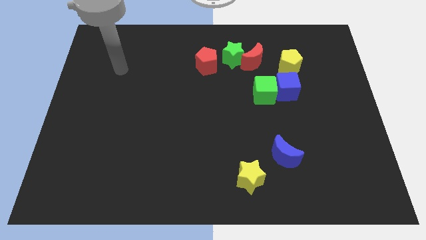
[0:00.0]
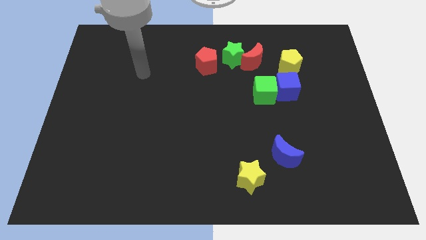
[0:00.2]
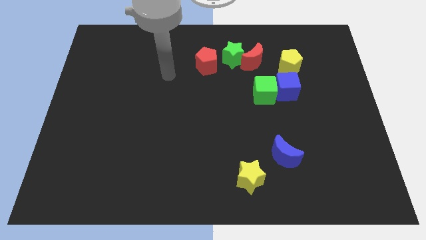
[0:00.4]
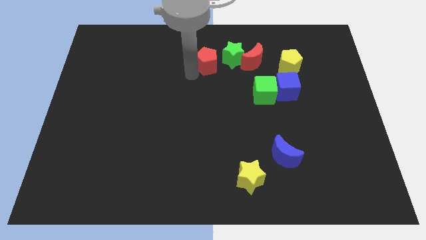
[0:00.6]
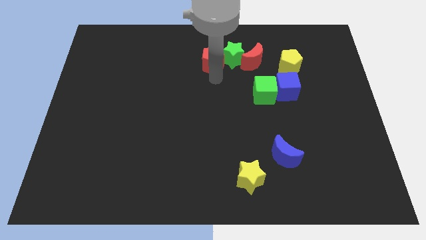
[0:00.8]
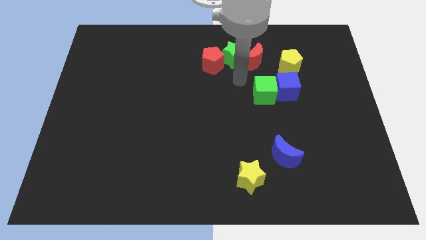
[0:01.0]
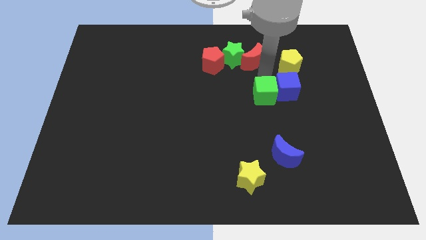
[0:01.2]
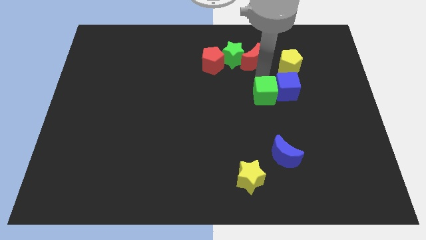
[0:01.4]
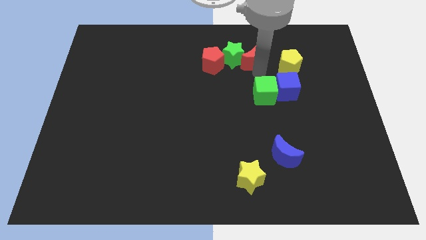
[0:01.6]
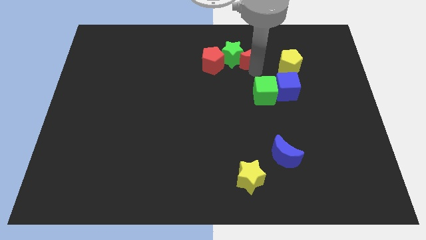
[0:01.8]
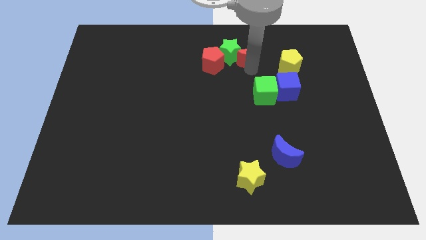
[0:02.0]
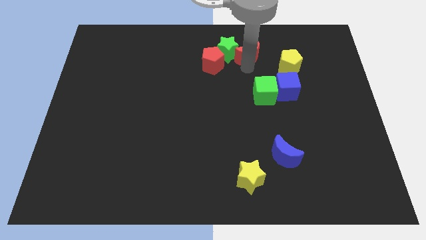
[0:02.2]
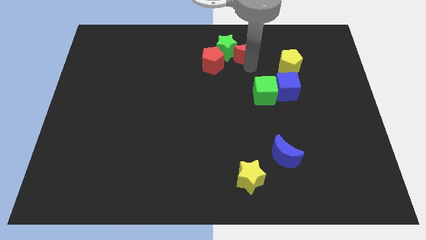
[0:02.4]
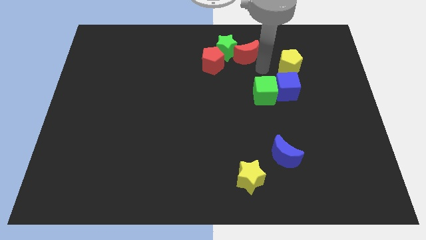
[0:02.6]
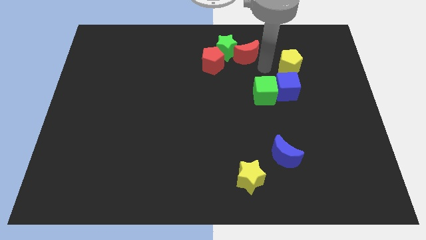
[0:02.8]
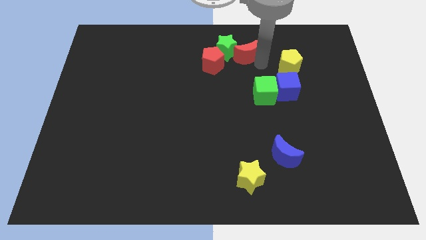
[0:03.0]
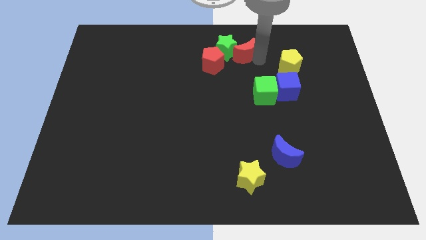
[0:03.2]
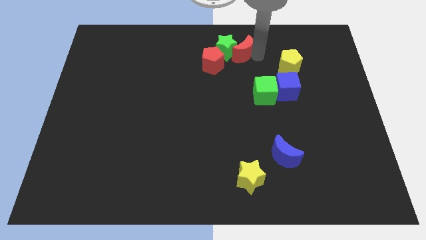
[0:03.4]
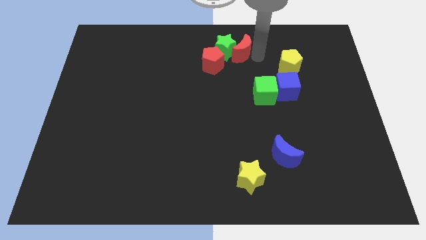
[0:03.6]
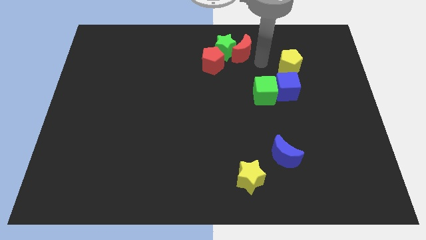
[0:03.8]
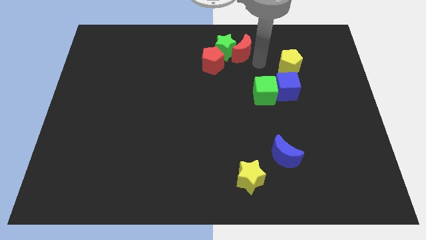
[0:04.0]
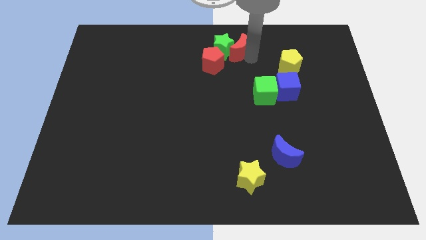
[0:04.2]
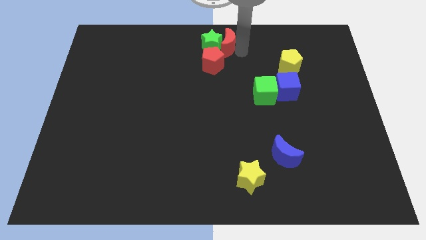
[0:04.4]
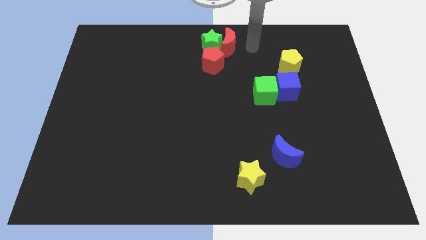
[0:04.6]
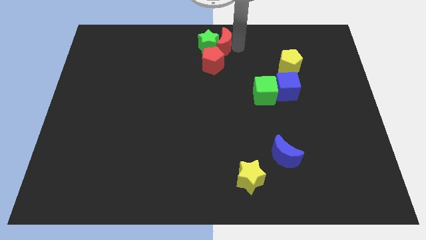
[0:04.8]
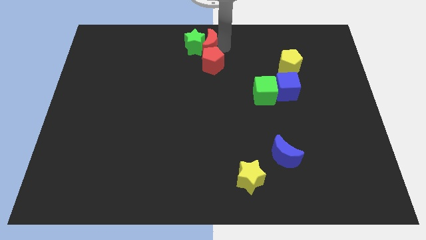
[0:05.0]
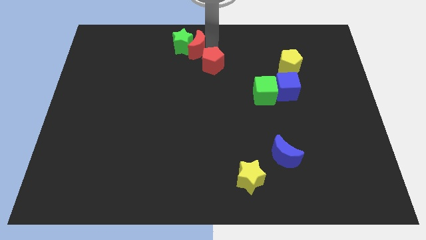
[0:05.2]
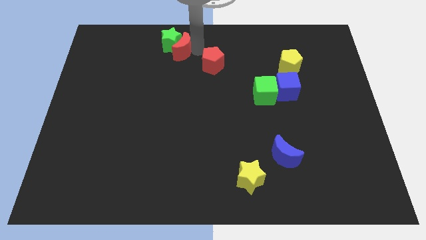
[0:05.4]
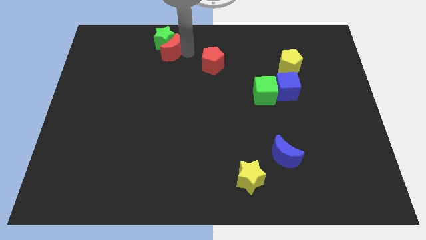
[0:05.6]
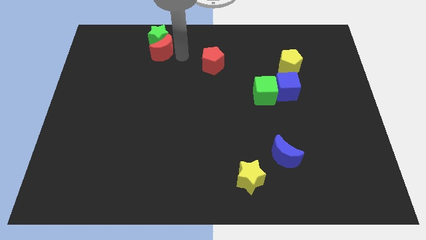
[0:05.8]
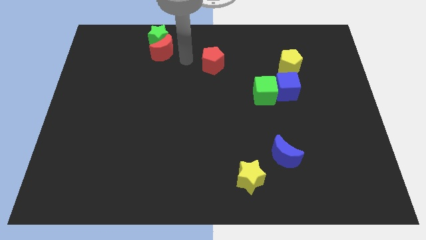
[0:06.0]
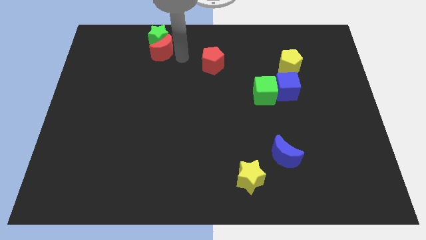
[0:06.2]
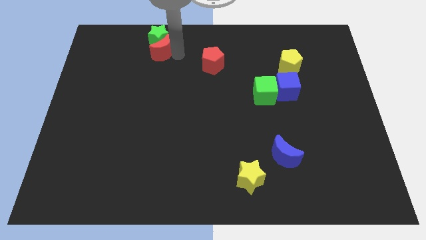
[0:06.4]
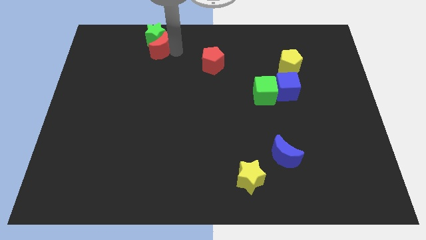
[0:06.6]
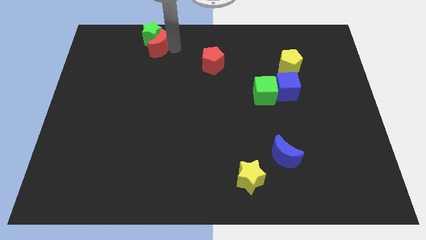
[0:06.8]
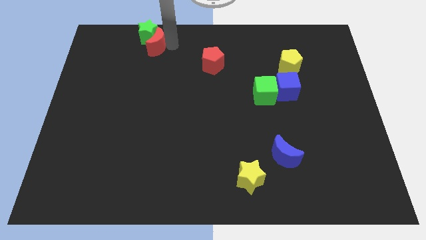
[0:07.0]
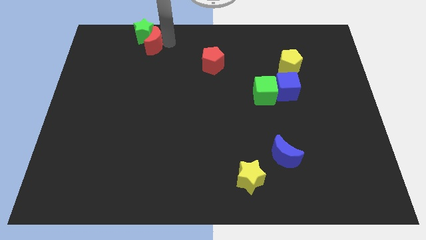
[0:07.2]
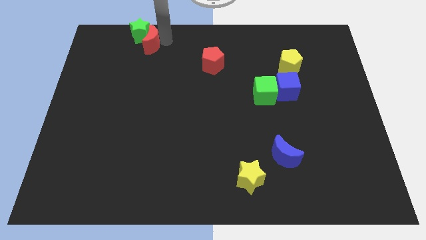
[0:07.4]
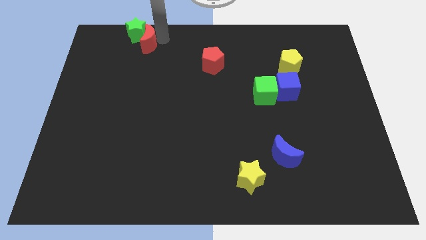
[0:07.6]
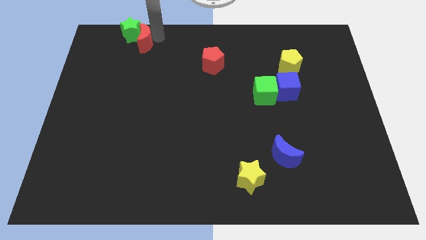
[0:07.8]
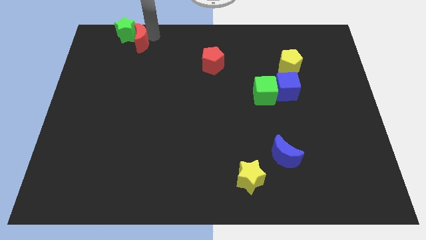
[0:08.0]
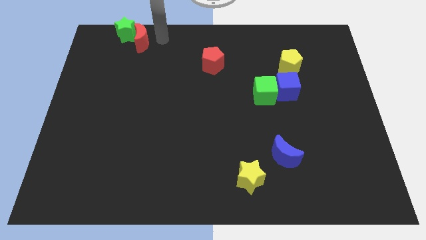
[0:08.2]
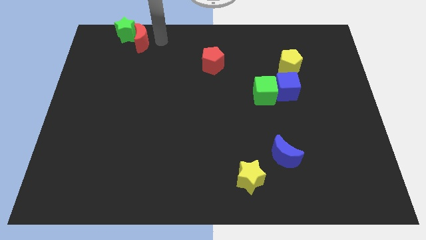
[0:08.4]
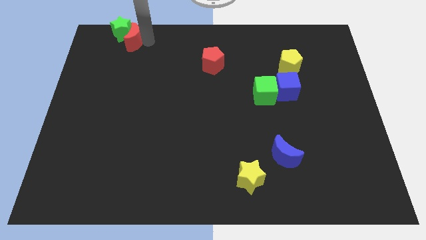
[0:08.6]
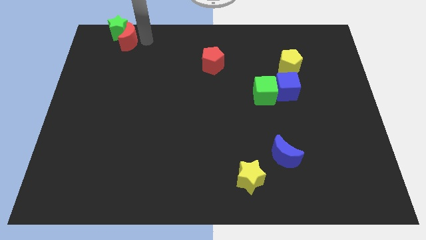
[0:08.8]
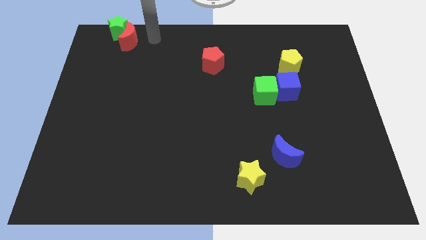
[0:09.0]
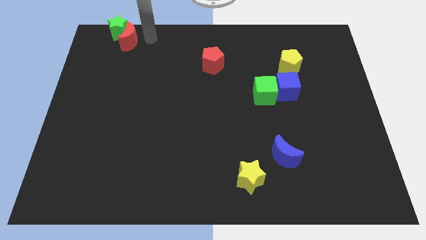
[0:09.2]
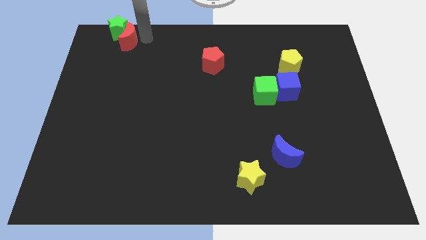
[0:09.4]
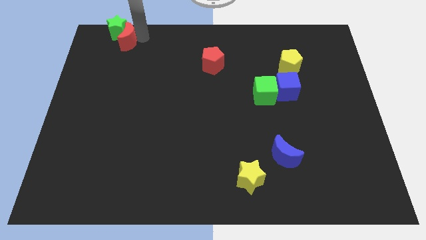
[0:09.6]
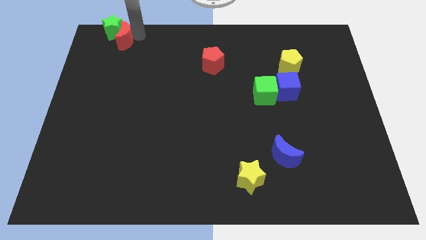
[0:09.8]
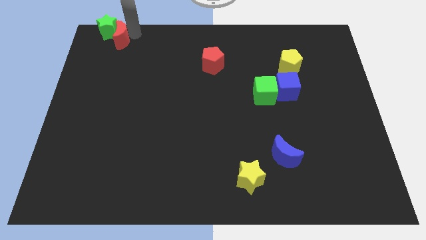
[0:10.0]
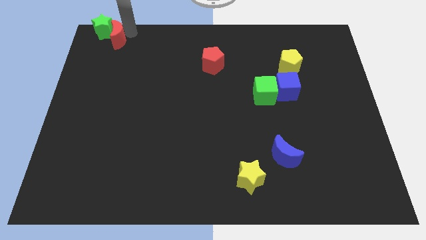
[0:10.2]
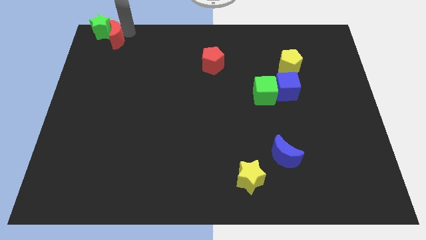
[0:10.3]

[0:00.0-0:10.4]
push the red moon to the top left corner

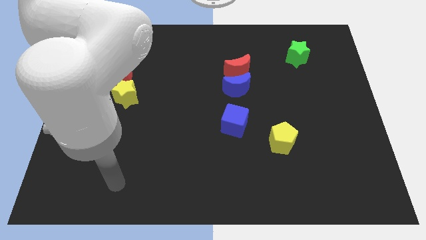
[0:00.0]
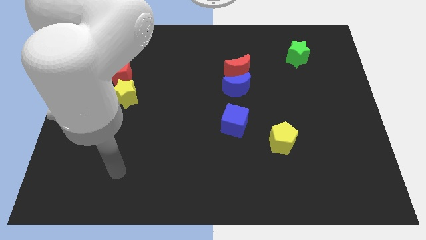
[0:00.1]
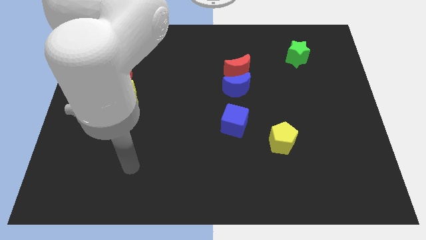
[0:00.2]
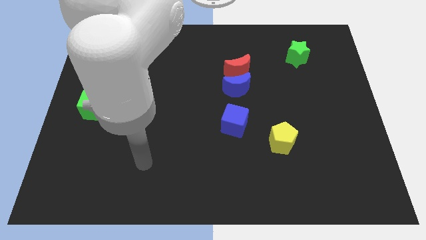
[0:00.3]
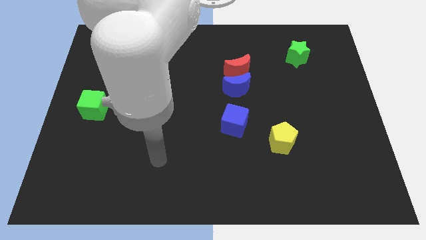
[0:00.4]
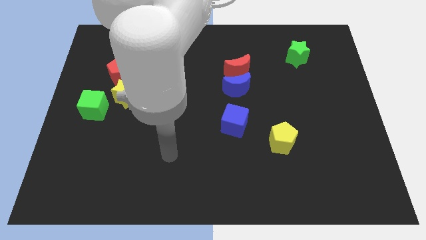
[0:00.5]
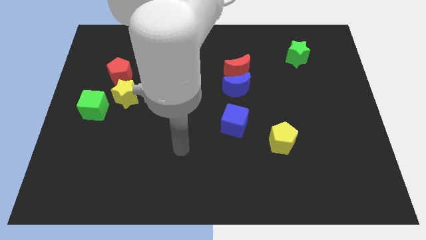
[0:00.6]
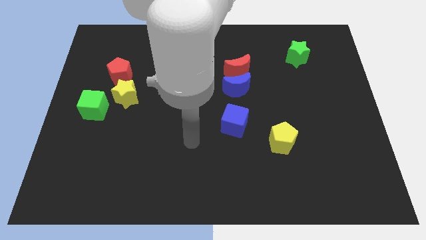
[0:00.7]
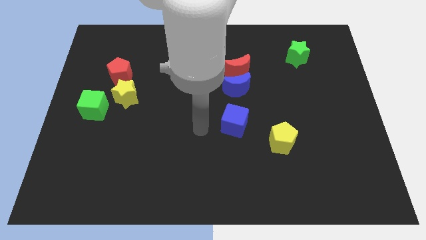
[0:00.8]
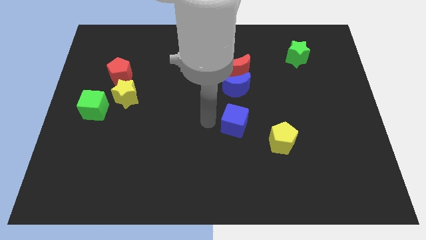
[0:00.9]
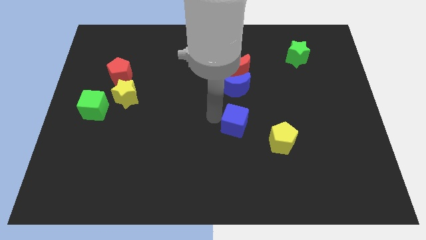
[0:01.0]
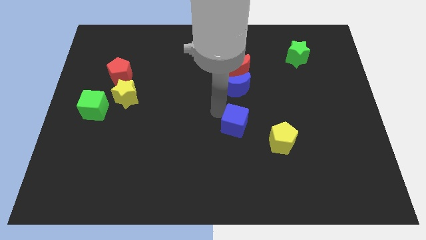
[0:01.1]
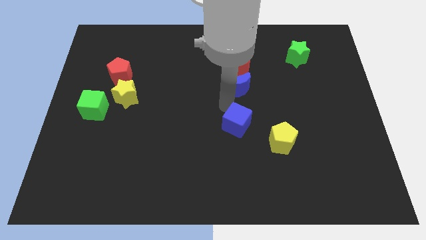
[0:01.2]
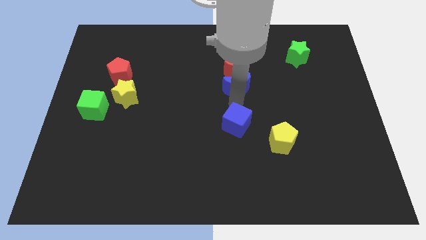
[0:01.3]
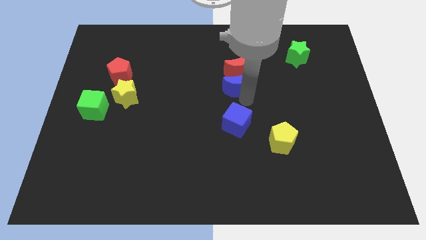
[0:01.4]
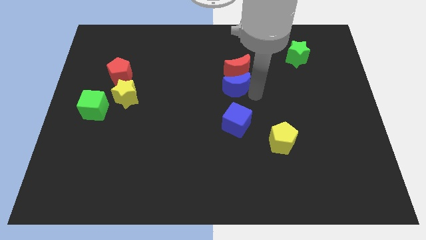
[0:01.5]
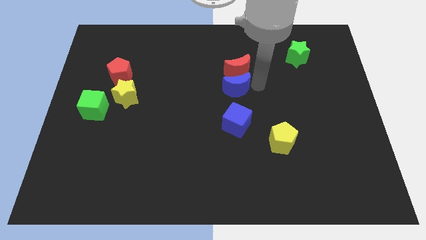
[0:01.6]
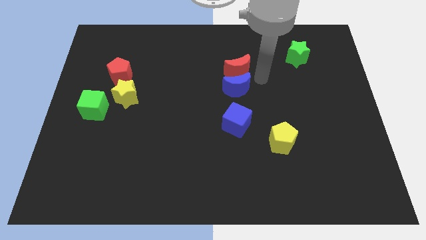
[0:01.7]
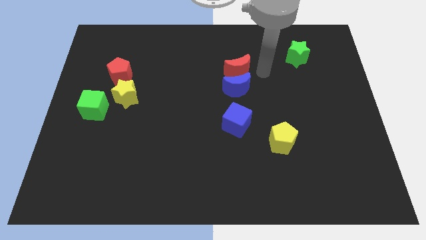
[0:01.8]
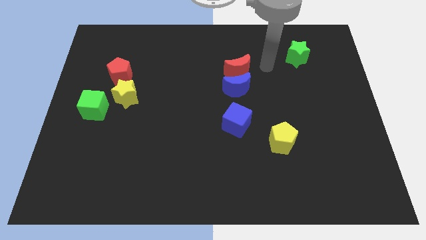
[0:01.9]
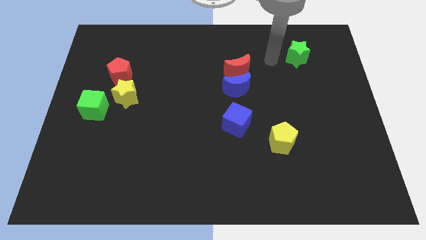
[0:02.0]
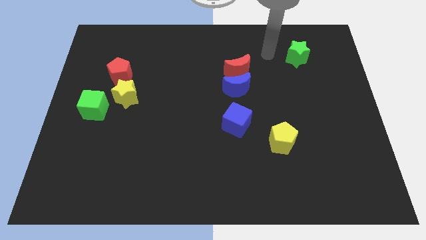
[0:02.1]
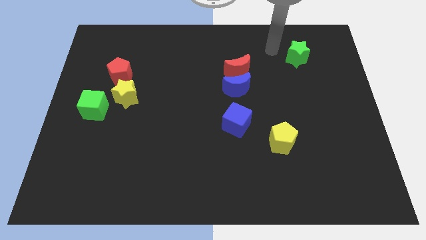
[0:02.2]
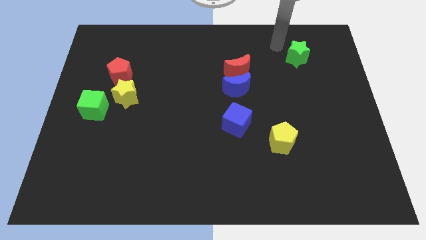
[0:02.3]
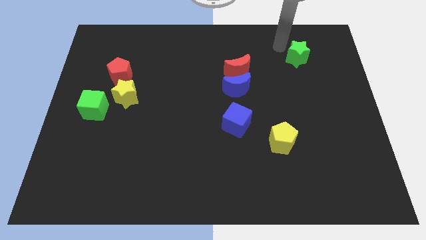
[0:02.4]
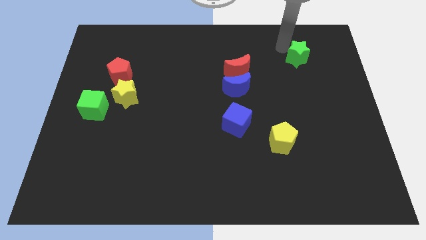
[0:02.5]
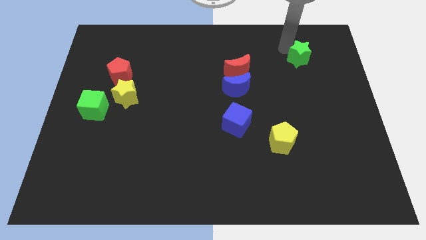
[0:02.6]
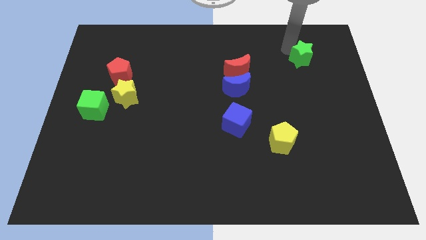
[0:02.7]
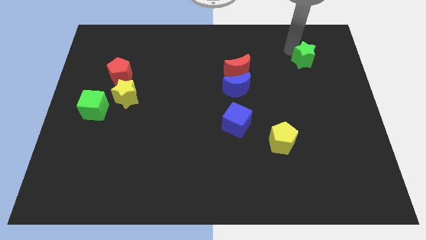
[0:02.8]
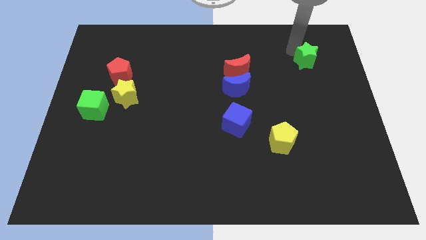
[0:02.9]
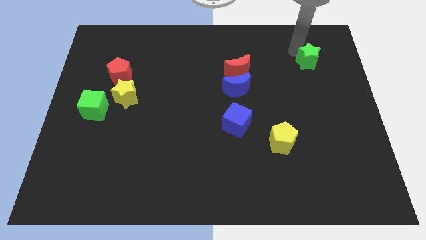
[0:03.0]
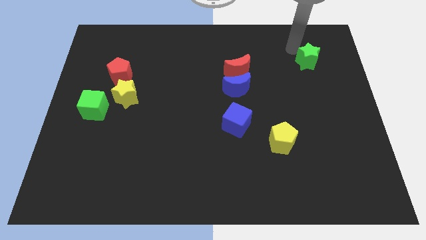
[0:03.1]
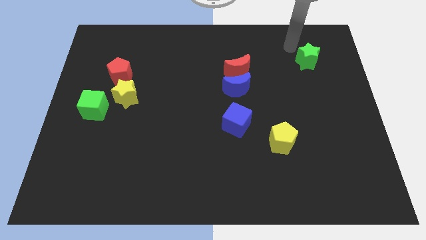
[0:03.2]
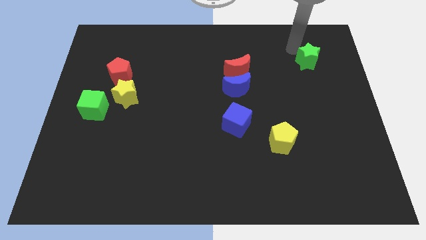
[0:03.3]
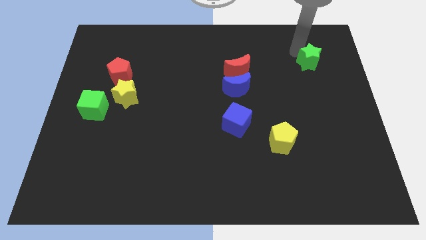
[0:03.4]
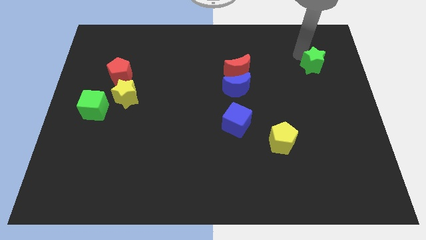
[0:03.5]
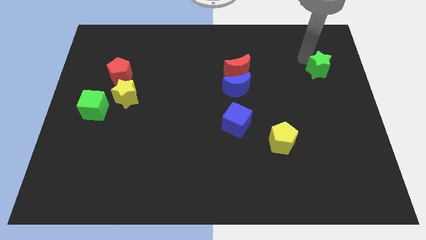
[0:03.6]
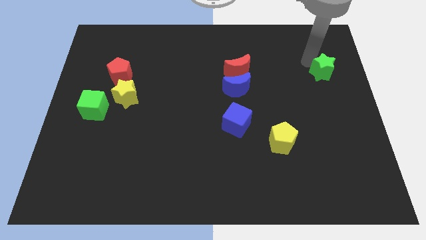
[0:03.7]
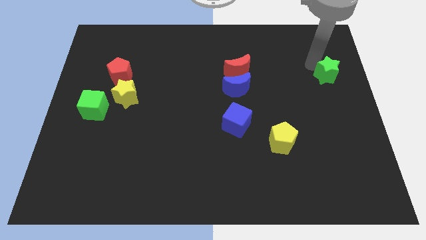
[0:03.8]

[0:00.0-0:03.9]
push the green star to the right side
